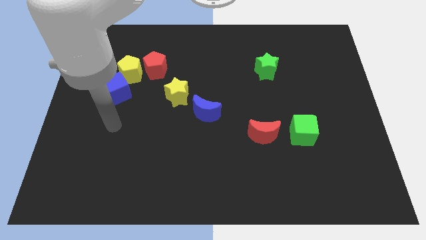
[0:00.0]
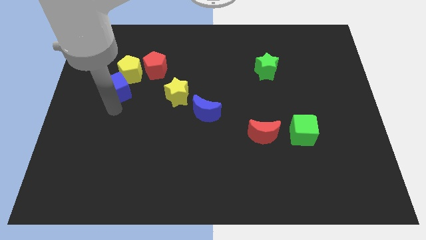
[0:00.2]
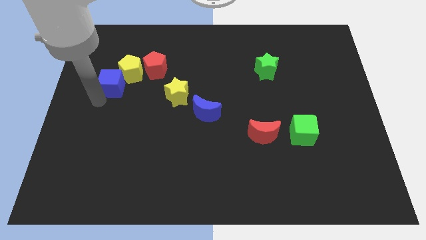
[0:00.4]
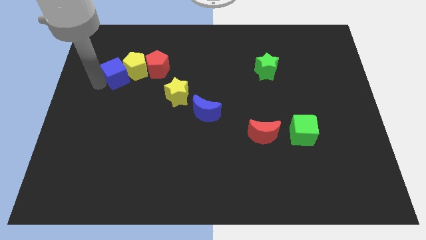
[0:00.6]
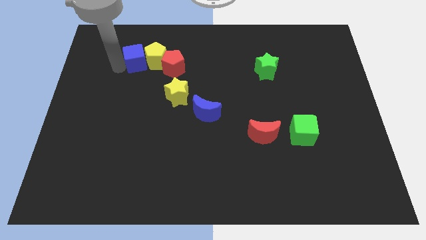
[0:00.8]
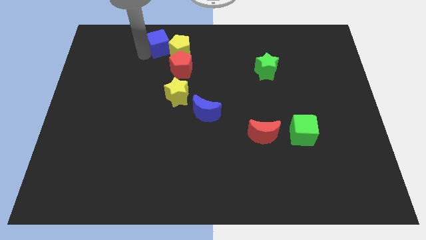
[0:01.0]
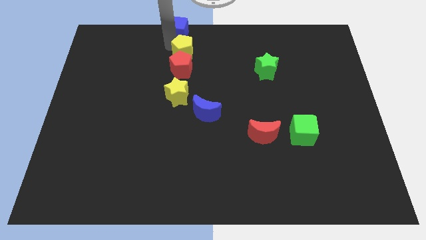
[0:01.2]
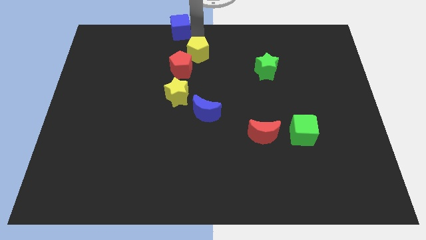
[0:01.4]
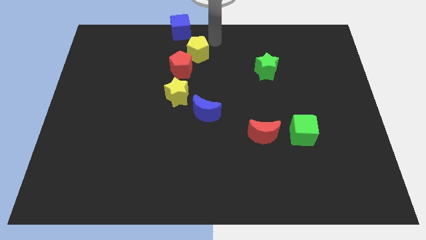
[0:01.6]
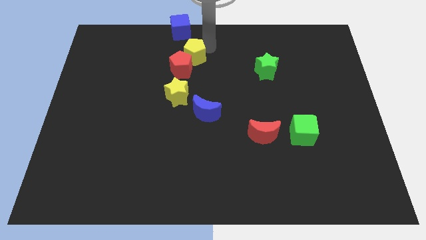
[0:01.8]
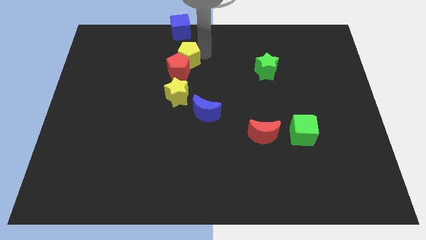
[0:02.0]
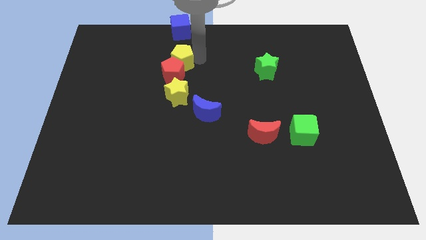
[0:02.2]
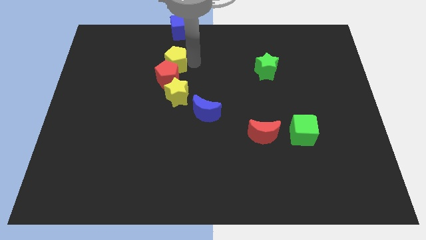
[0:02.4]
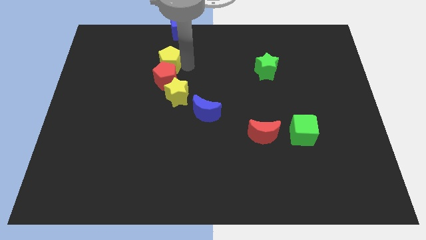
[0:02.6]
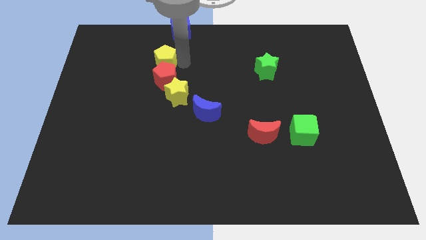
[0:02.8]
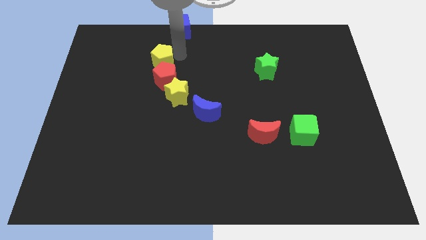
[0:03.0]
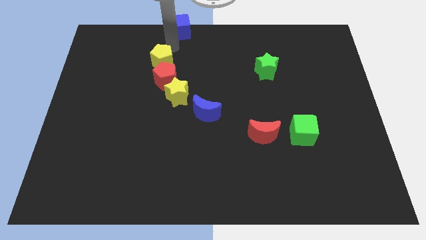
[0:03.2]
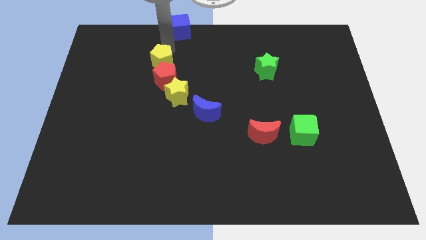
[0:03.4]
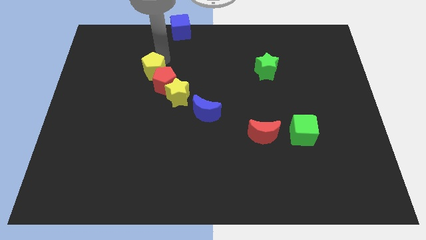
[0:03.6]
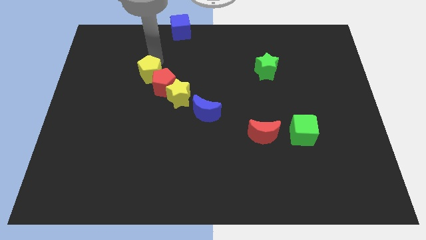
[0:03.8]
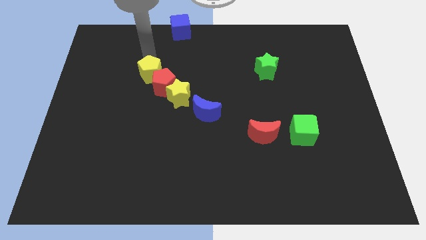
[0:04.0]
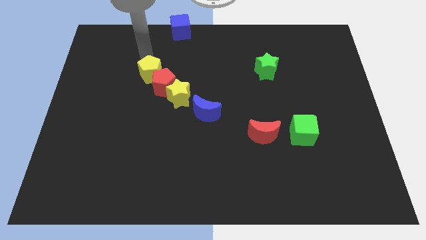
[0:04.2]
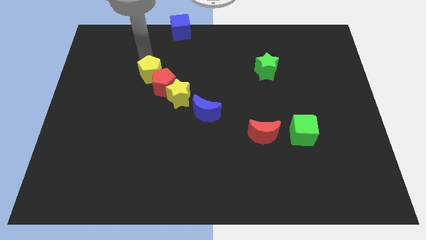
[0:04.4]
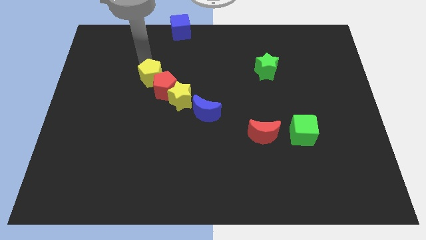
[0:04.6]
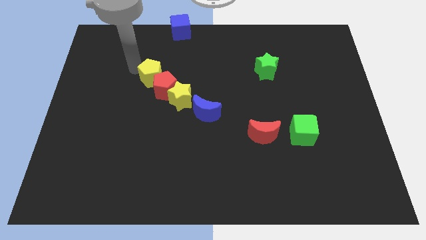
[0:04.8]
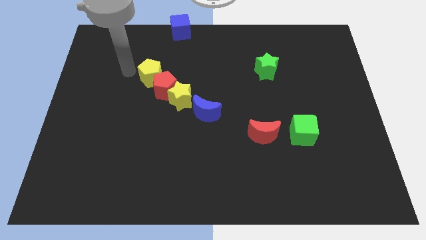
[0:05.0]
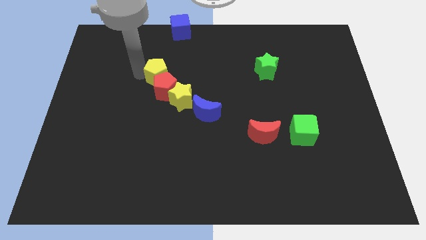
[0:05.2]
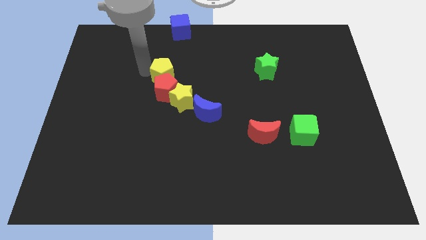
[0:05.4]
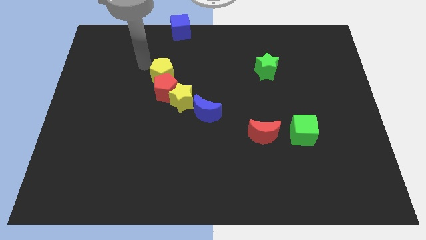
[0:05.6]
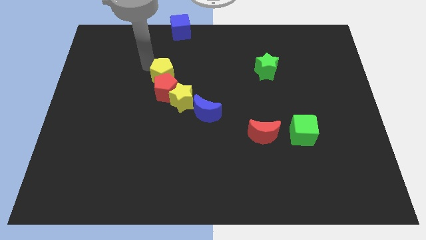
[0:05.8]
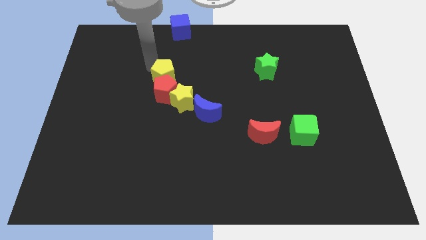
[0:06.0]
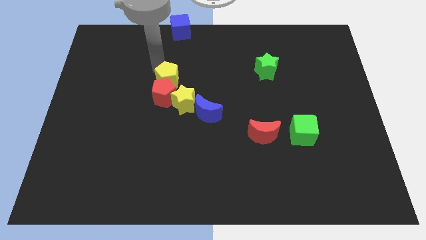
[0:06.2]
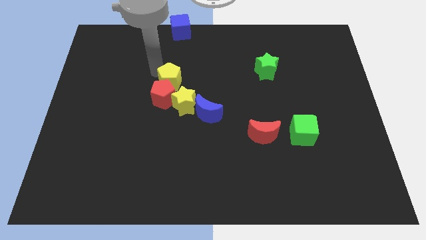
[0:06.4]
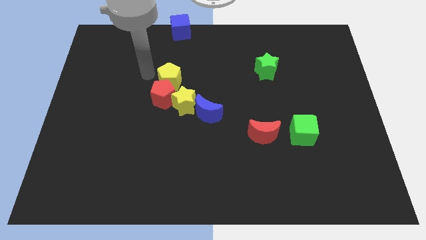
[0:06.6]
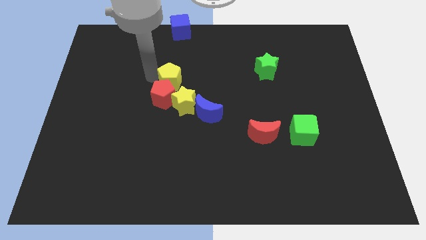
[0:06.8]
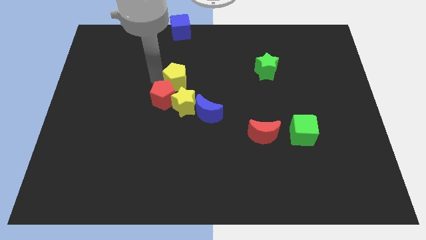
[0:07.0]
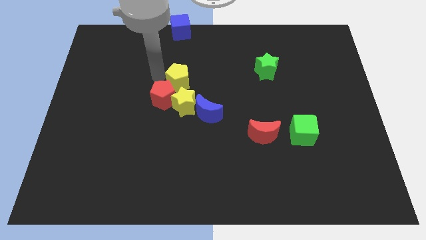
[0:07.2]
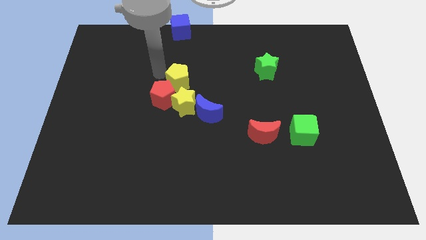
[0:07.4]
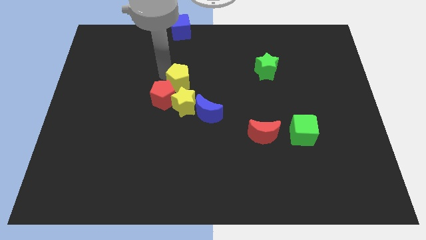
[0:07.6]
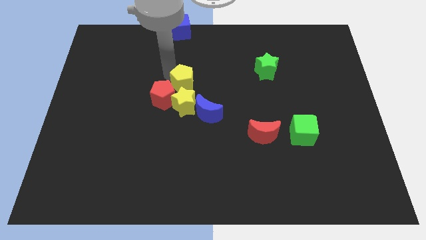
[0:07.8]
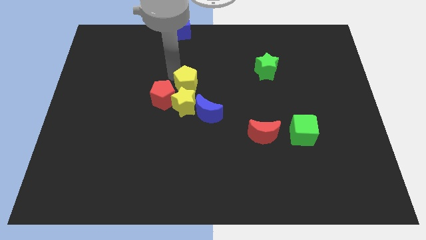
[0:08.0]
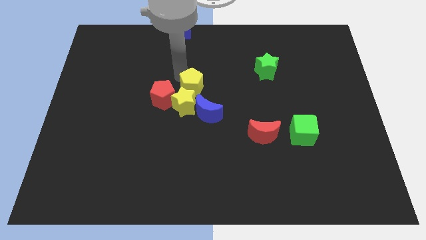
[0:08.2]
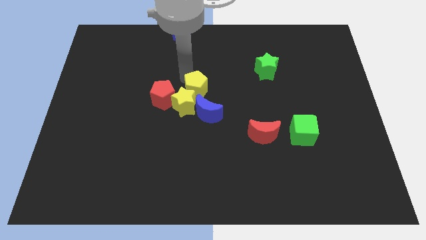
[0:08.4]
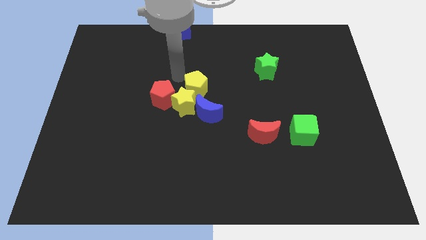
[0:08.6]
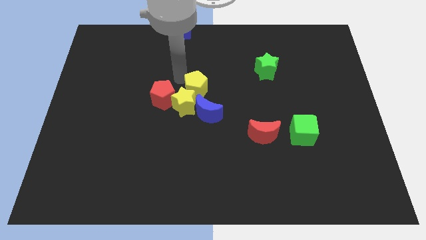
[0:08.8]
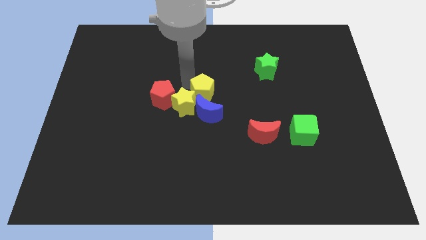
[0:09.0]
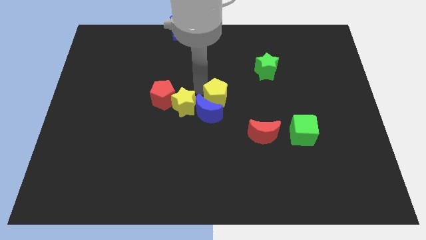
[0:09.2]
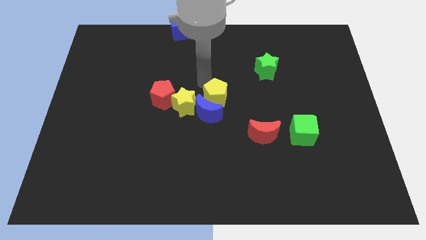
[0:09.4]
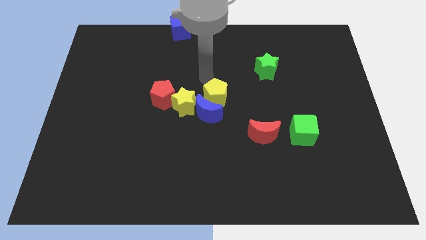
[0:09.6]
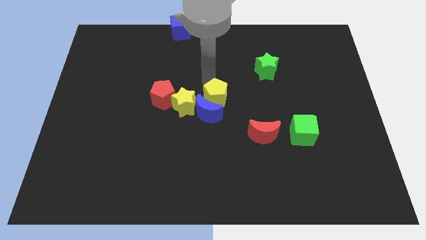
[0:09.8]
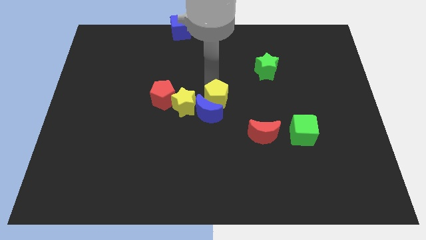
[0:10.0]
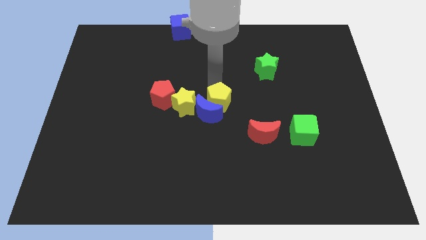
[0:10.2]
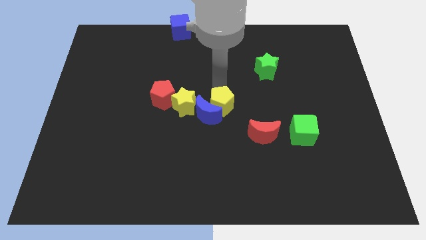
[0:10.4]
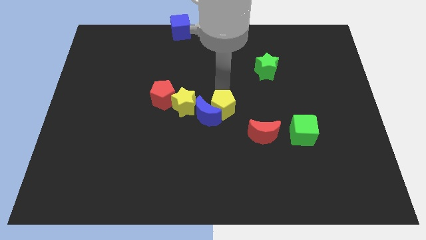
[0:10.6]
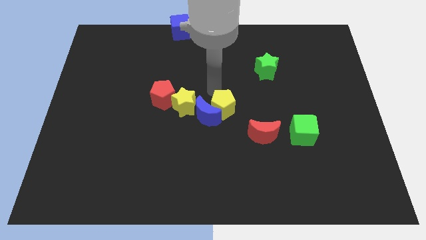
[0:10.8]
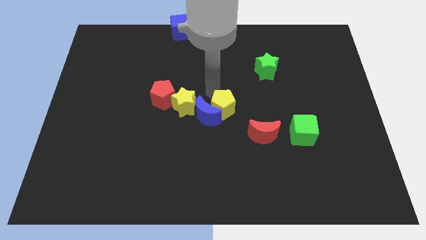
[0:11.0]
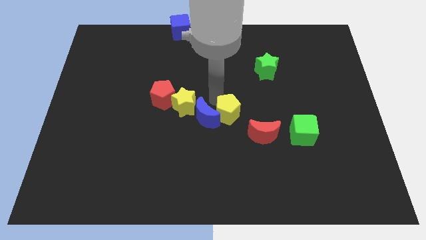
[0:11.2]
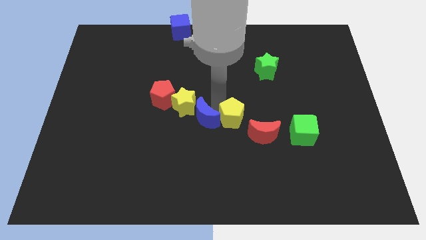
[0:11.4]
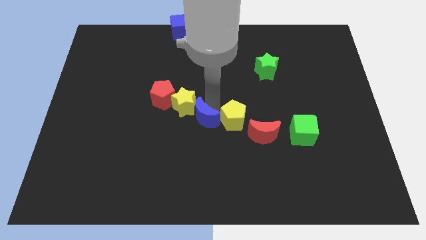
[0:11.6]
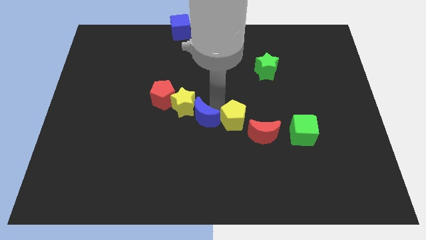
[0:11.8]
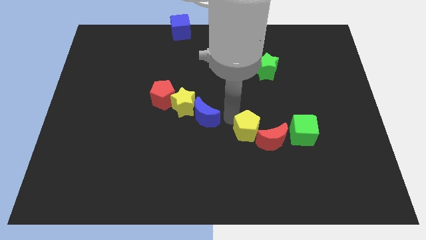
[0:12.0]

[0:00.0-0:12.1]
slide the yellow pentagon close to the red moon

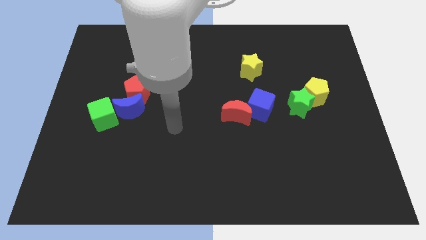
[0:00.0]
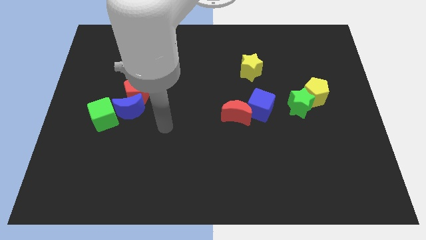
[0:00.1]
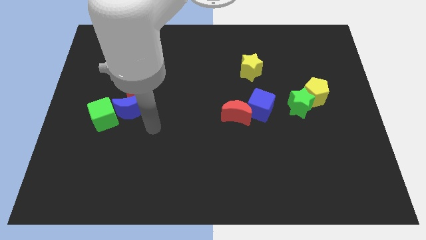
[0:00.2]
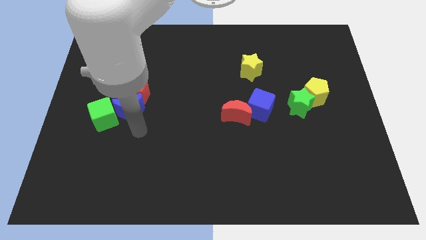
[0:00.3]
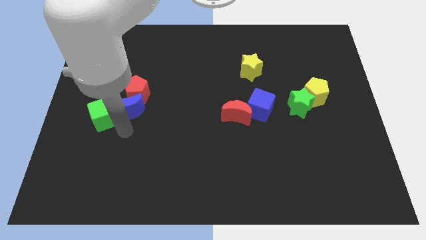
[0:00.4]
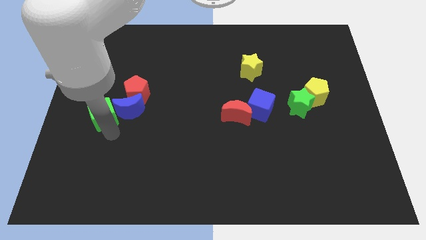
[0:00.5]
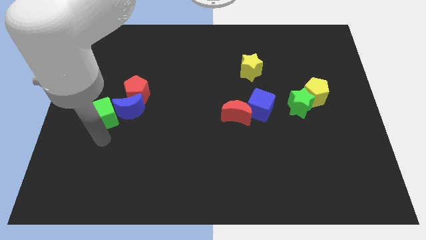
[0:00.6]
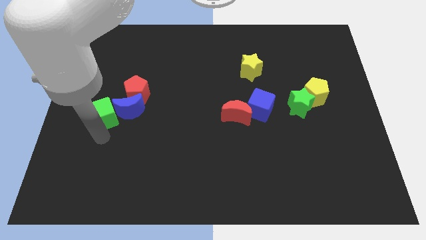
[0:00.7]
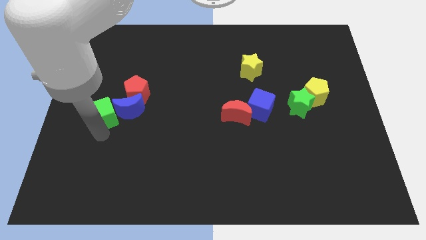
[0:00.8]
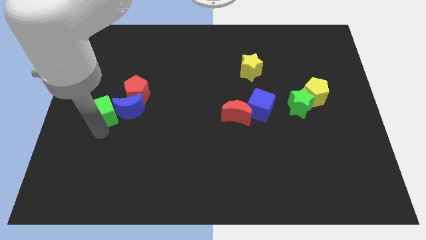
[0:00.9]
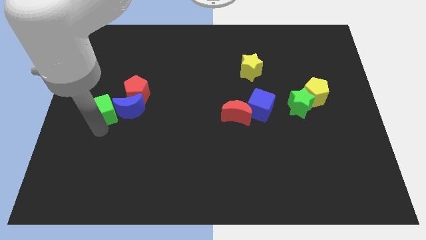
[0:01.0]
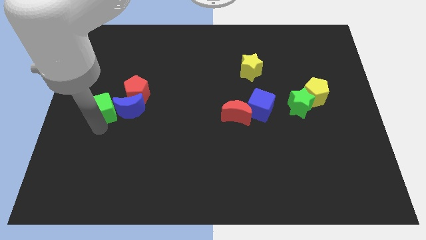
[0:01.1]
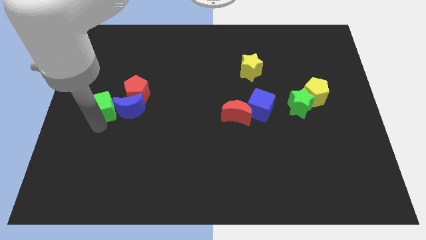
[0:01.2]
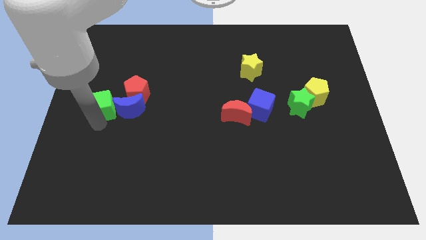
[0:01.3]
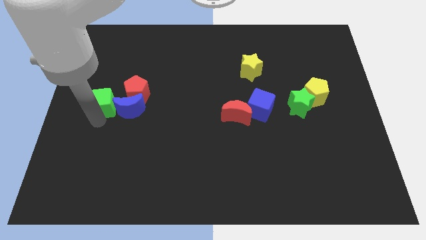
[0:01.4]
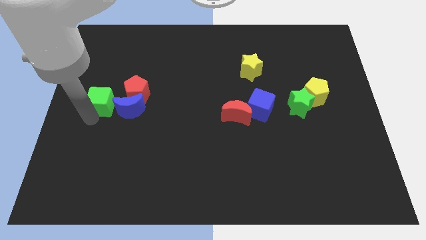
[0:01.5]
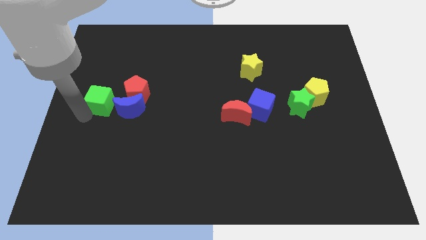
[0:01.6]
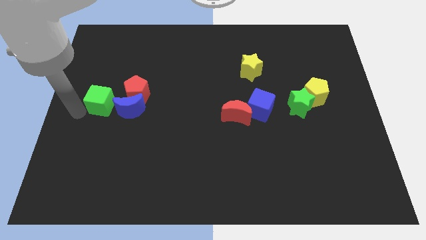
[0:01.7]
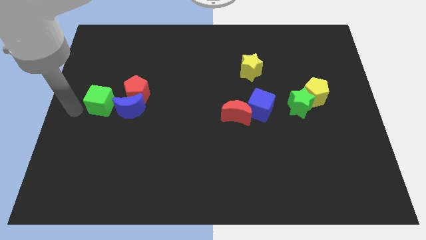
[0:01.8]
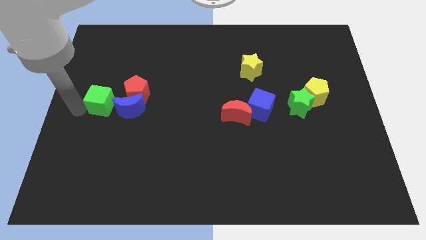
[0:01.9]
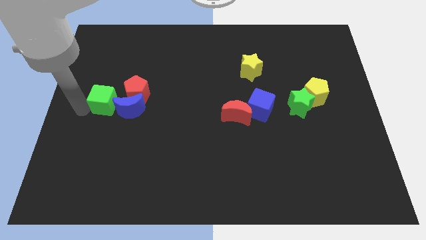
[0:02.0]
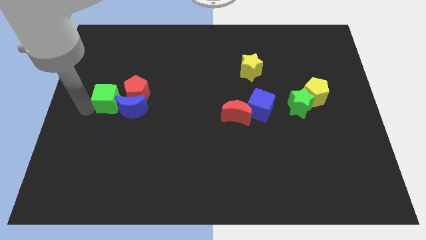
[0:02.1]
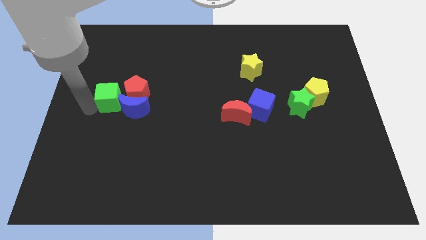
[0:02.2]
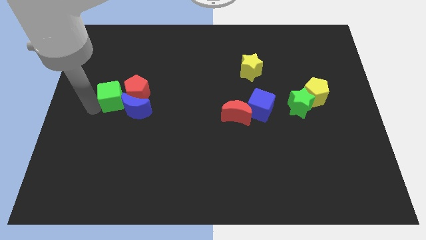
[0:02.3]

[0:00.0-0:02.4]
move the green cube close to the red pentagon

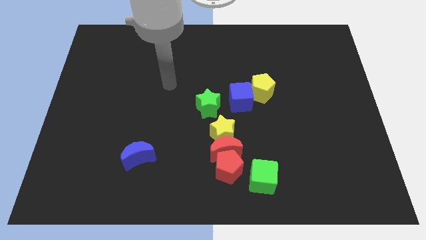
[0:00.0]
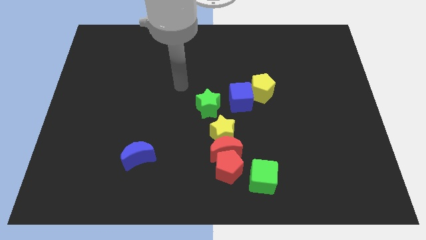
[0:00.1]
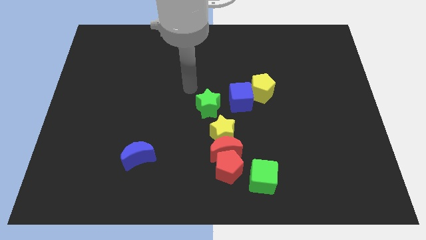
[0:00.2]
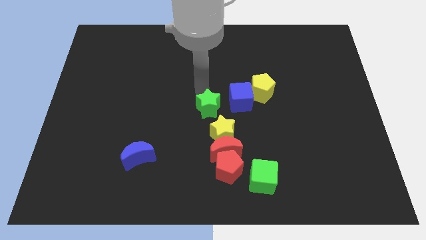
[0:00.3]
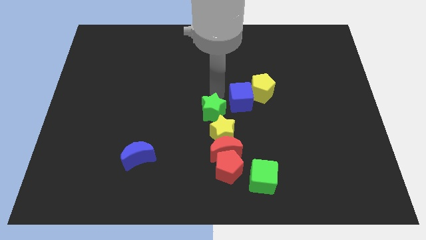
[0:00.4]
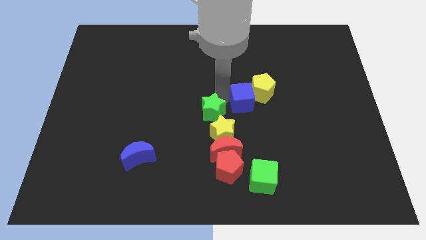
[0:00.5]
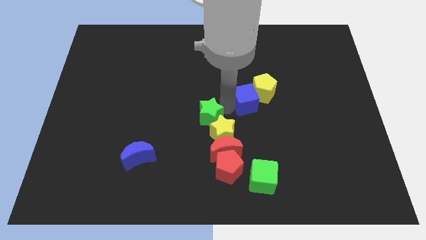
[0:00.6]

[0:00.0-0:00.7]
slide the yellow star towards the green star
